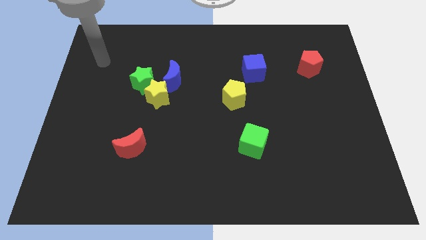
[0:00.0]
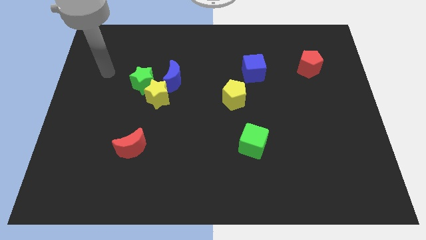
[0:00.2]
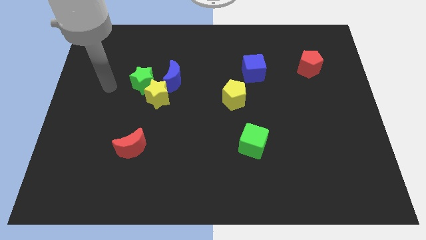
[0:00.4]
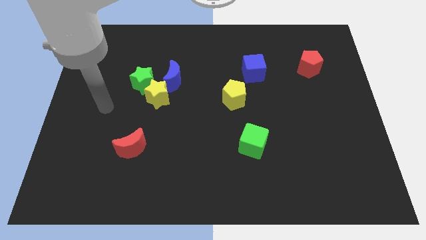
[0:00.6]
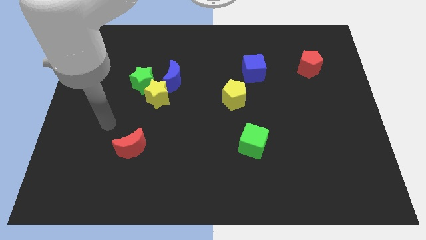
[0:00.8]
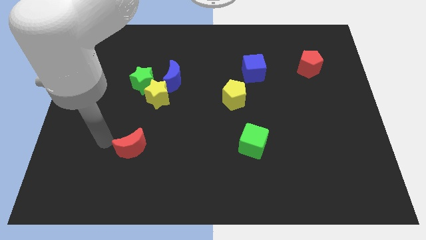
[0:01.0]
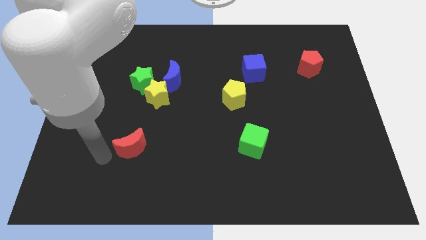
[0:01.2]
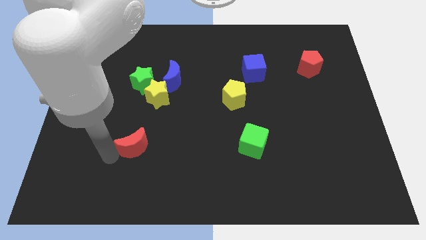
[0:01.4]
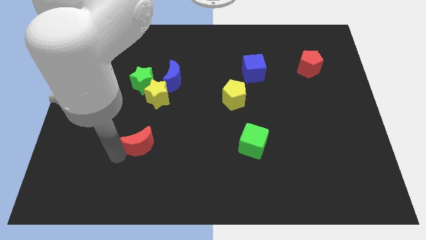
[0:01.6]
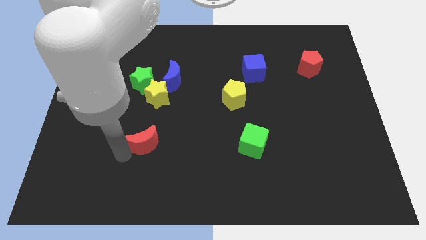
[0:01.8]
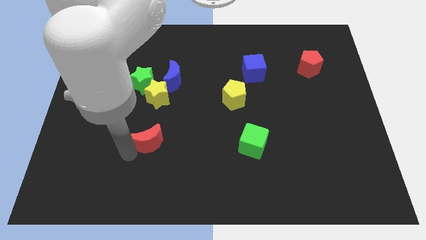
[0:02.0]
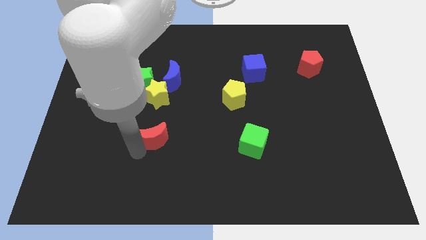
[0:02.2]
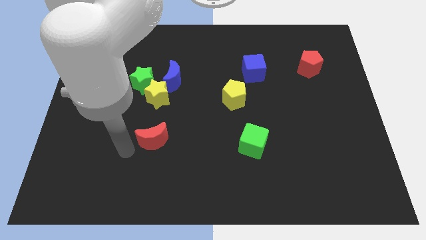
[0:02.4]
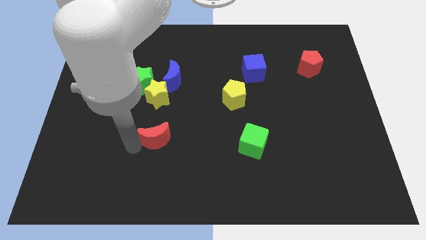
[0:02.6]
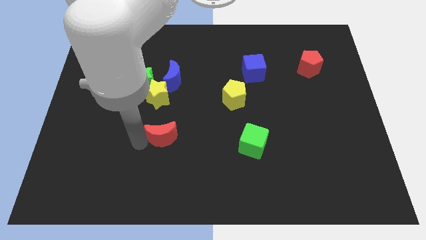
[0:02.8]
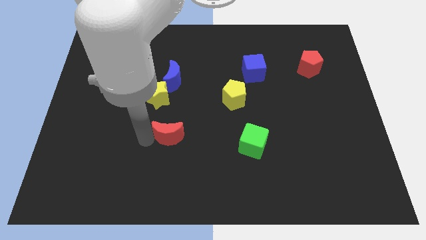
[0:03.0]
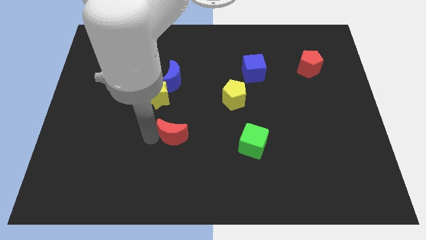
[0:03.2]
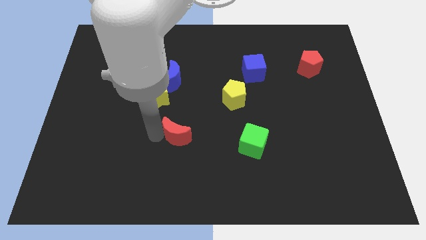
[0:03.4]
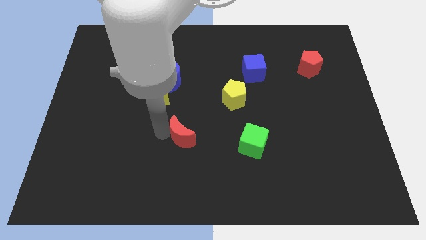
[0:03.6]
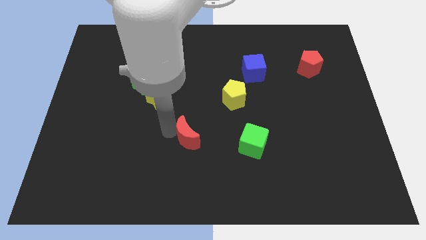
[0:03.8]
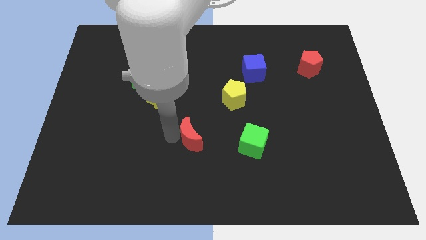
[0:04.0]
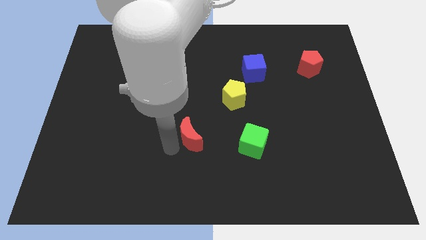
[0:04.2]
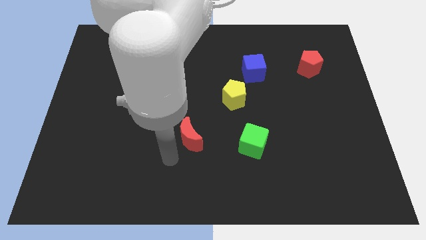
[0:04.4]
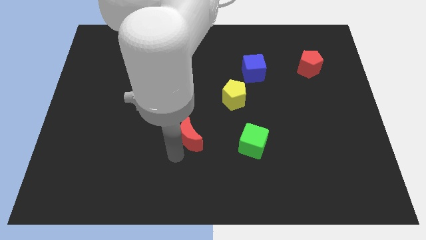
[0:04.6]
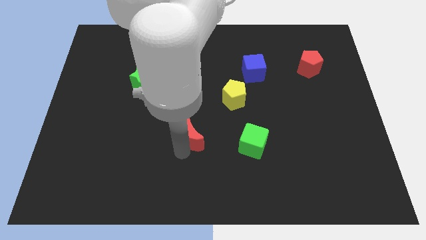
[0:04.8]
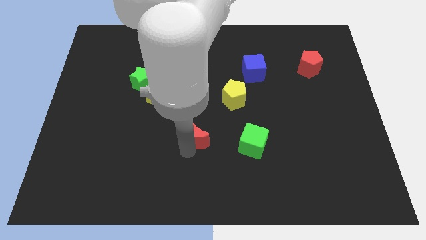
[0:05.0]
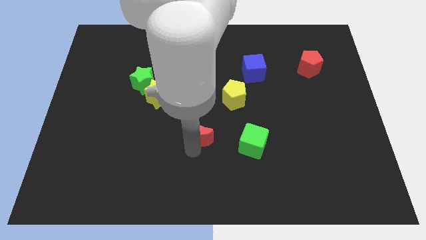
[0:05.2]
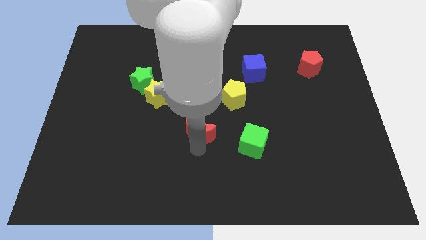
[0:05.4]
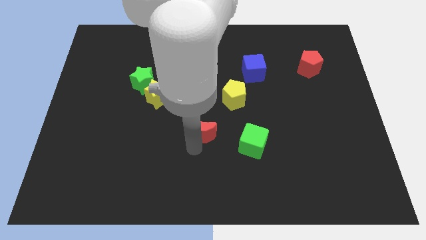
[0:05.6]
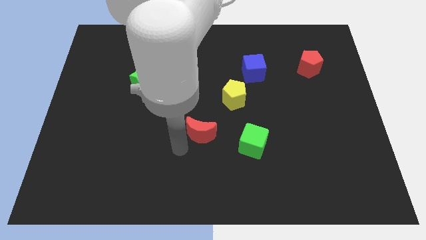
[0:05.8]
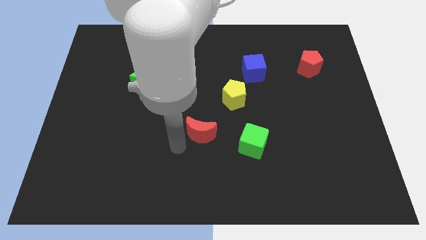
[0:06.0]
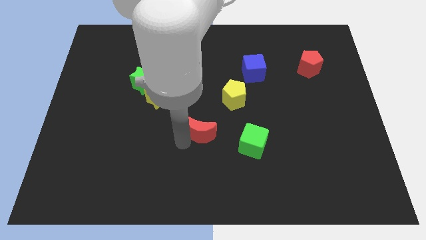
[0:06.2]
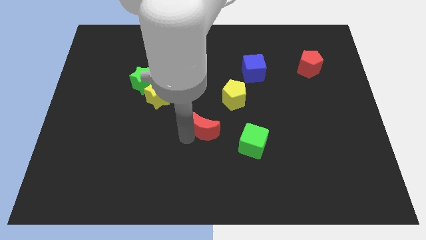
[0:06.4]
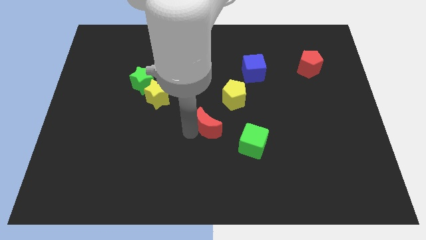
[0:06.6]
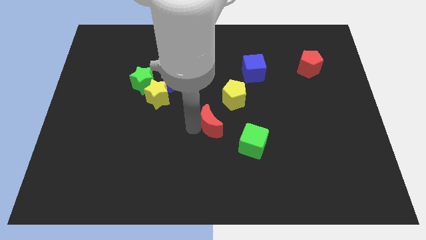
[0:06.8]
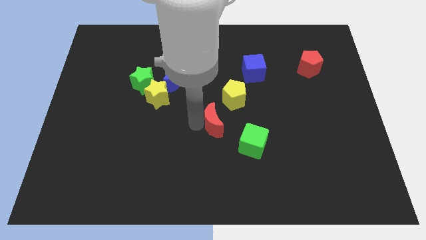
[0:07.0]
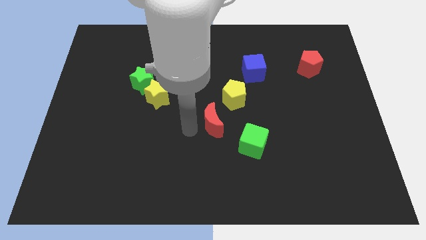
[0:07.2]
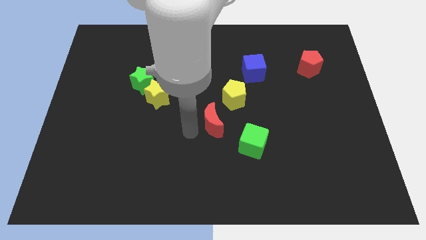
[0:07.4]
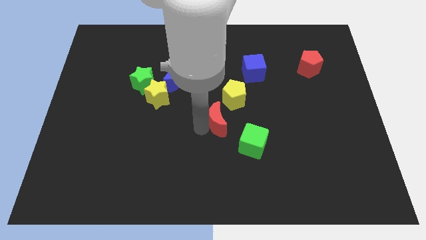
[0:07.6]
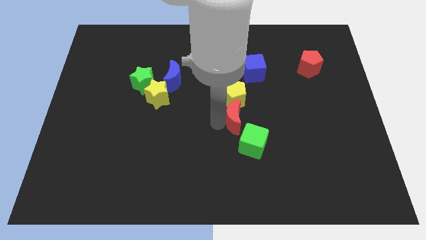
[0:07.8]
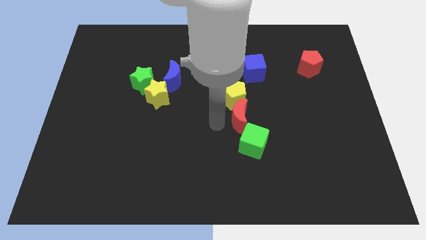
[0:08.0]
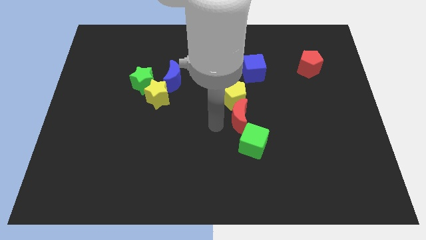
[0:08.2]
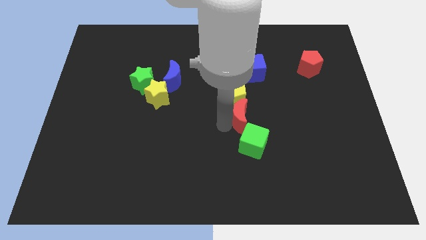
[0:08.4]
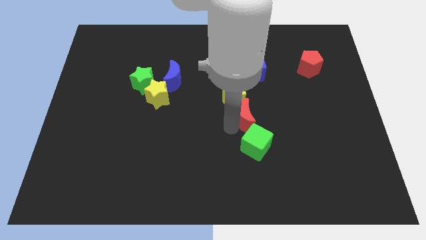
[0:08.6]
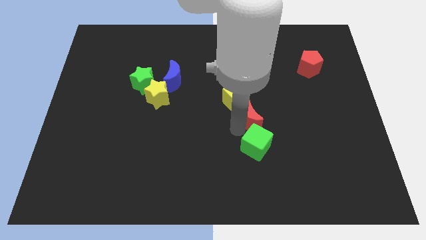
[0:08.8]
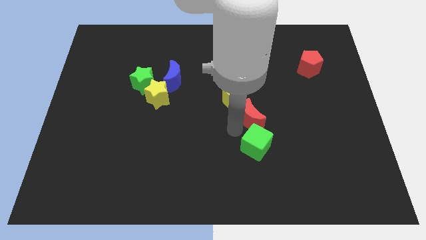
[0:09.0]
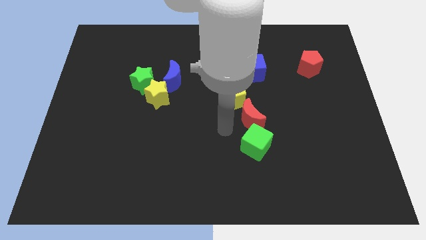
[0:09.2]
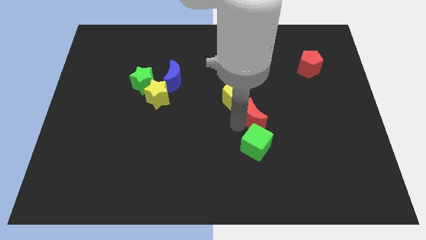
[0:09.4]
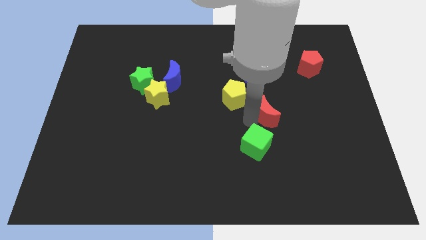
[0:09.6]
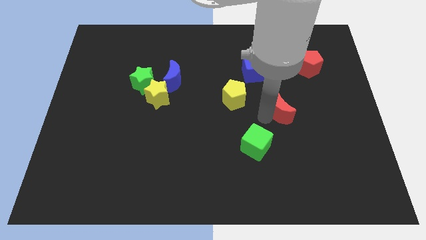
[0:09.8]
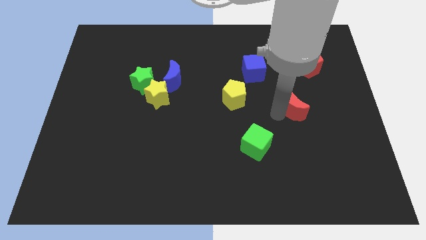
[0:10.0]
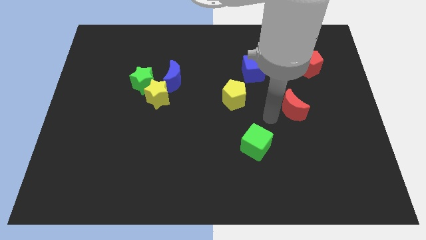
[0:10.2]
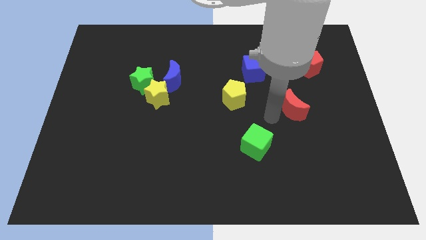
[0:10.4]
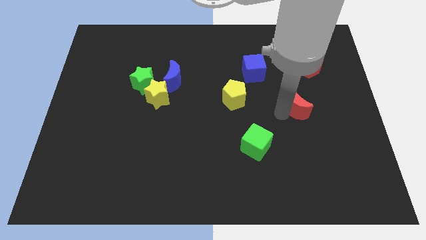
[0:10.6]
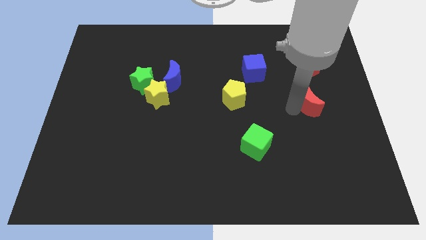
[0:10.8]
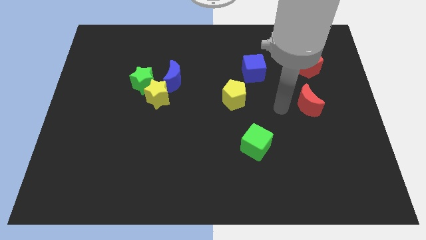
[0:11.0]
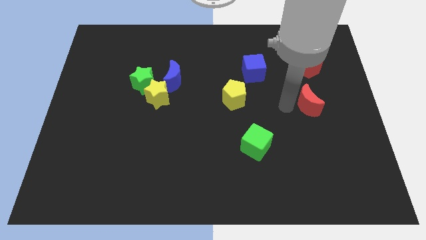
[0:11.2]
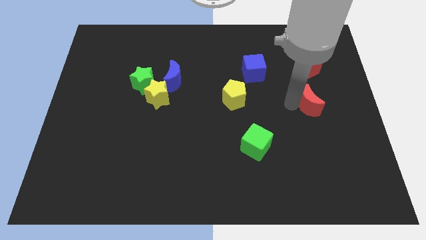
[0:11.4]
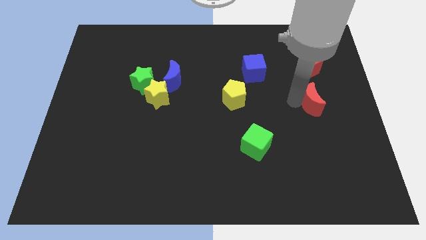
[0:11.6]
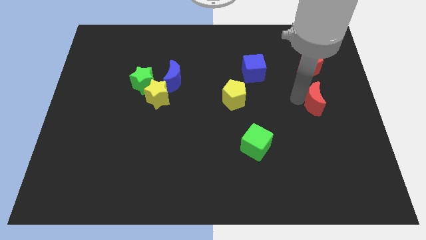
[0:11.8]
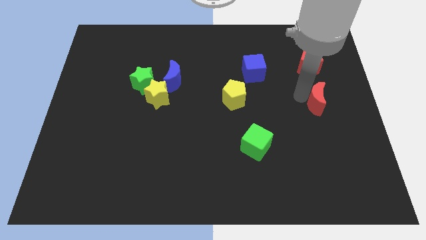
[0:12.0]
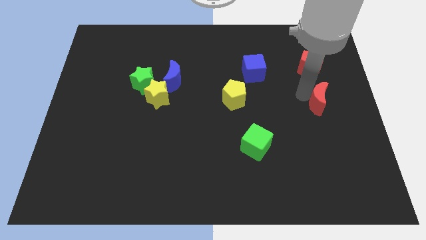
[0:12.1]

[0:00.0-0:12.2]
push the red moon to the right side
